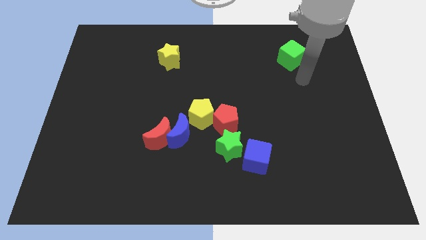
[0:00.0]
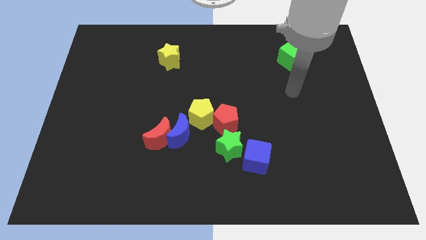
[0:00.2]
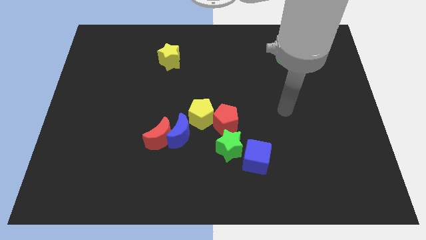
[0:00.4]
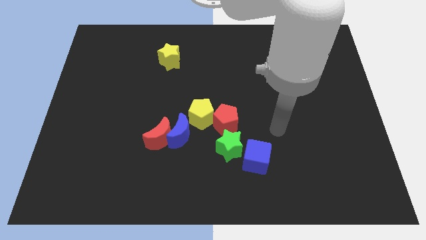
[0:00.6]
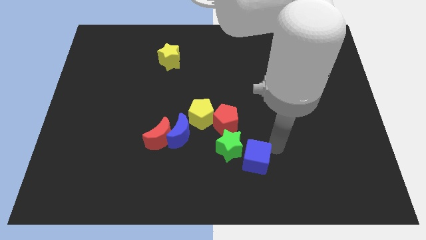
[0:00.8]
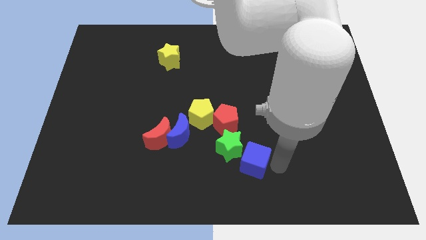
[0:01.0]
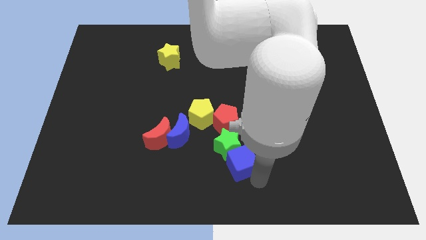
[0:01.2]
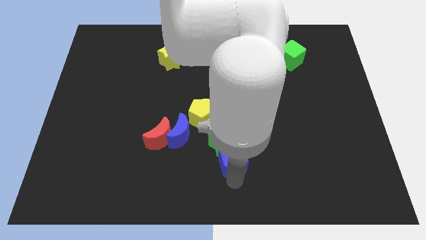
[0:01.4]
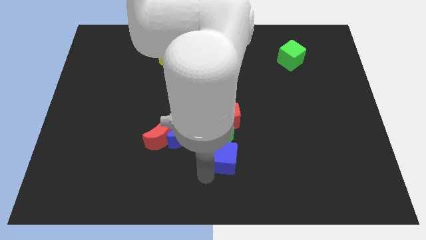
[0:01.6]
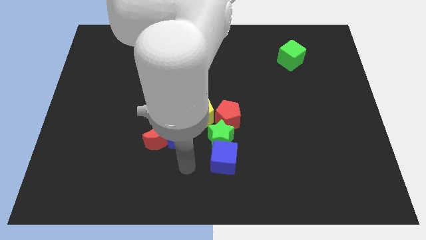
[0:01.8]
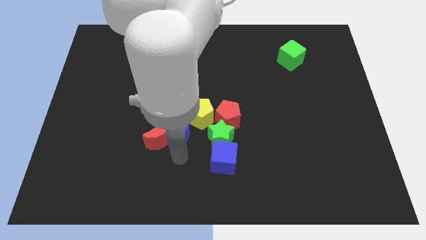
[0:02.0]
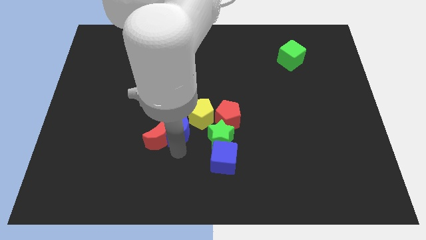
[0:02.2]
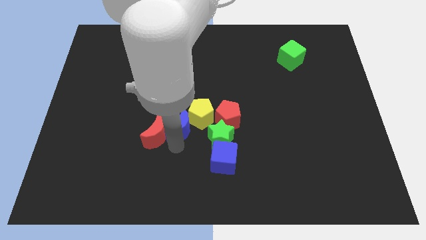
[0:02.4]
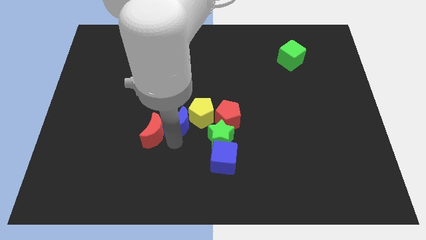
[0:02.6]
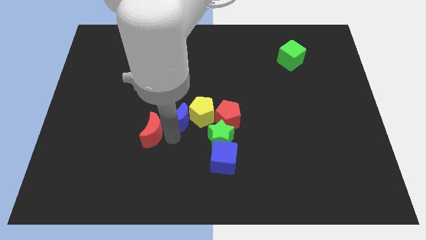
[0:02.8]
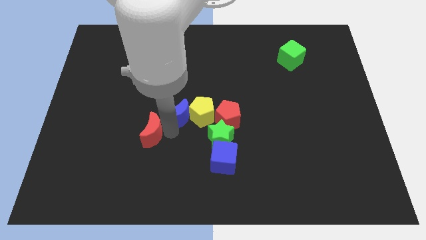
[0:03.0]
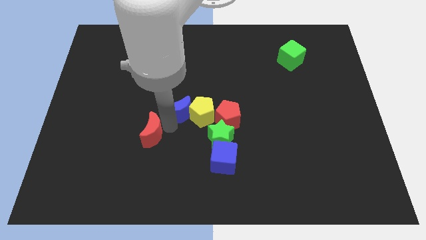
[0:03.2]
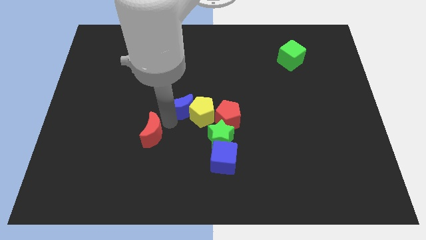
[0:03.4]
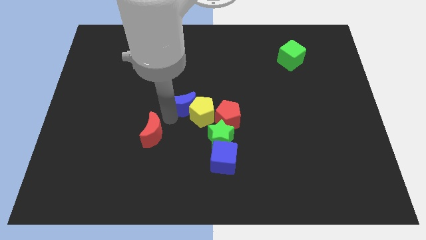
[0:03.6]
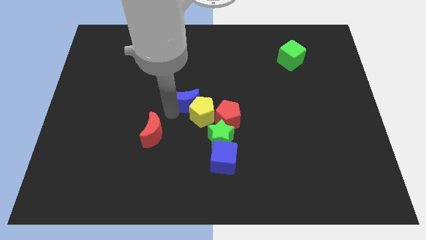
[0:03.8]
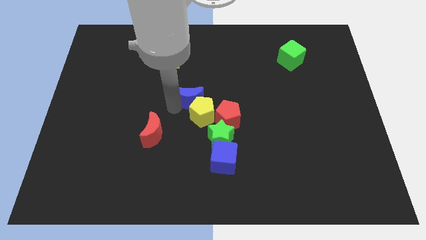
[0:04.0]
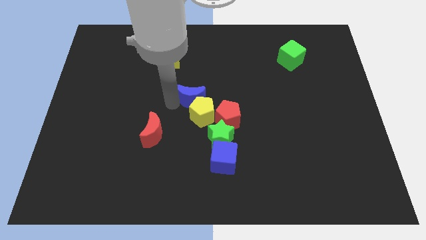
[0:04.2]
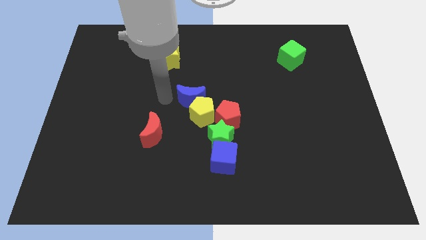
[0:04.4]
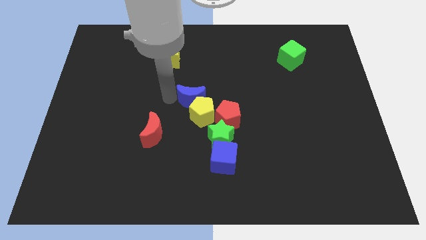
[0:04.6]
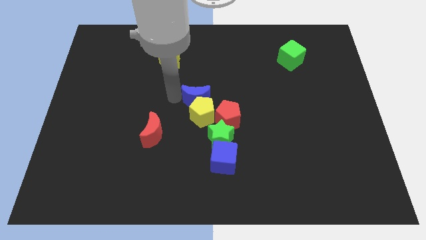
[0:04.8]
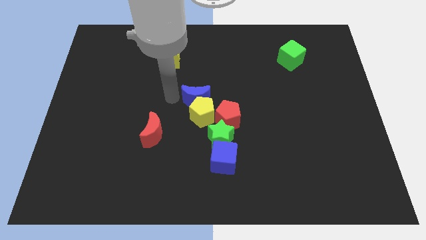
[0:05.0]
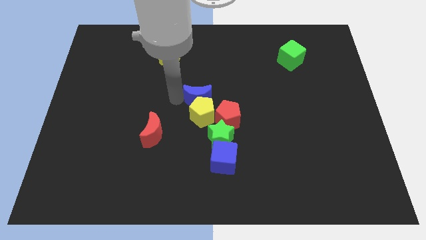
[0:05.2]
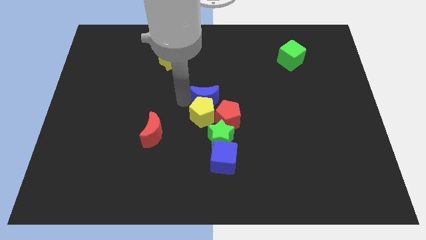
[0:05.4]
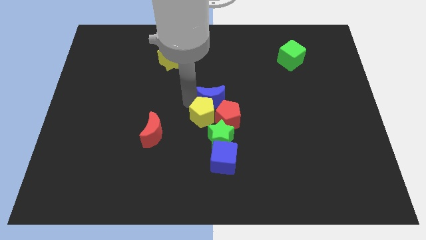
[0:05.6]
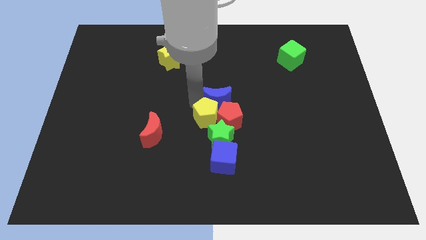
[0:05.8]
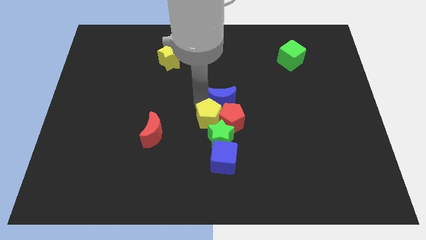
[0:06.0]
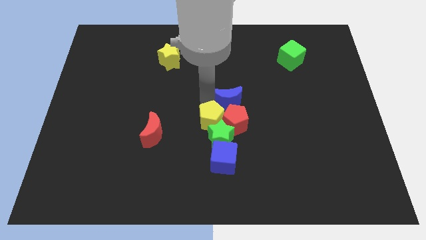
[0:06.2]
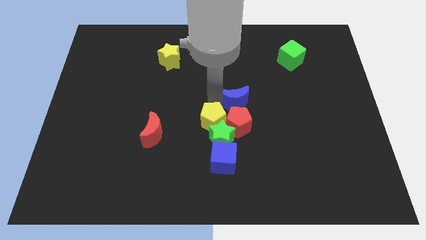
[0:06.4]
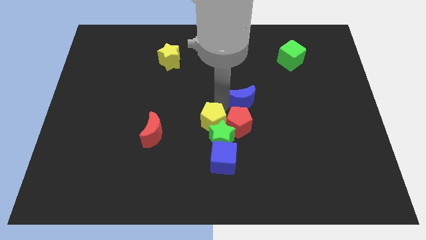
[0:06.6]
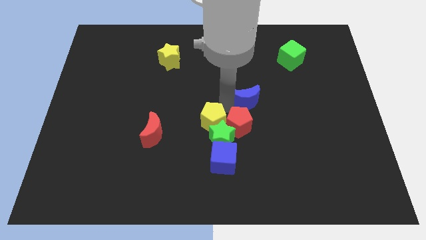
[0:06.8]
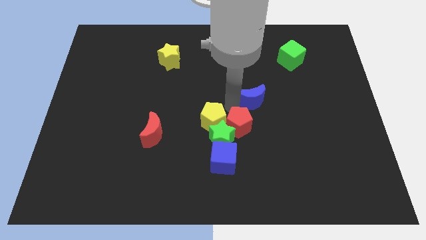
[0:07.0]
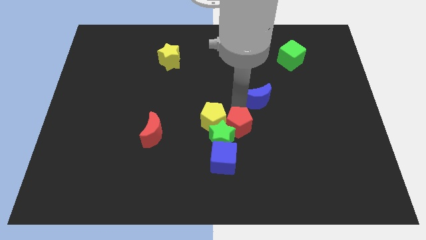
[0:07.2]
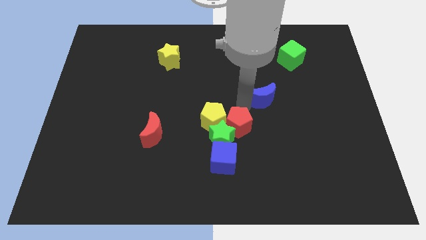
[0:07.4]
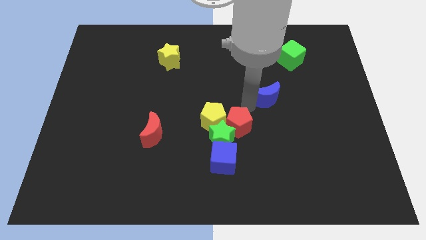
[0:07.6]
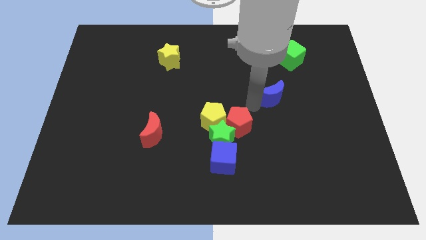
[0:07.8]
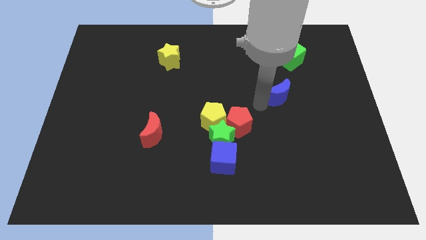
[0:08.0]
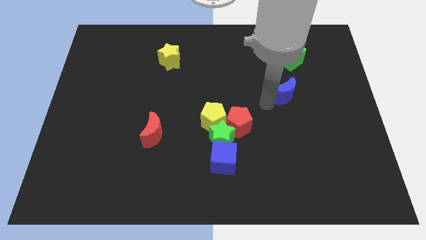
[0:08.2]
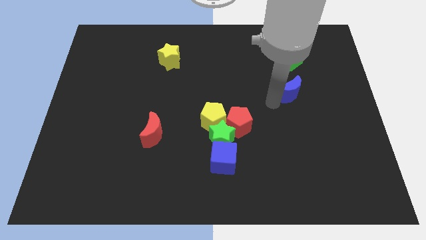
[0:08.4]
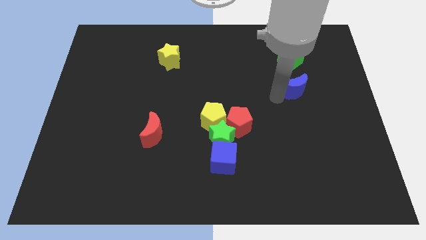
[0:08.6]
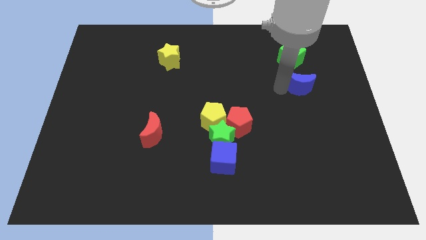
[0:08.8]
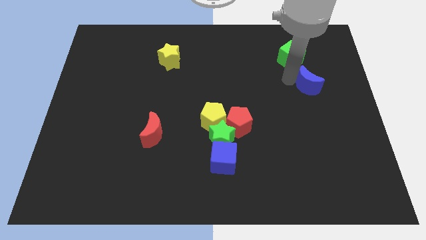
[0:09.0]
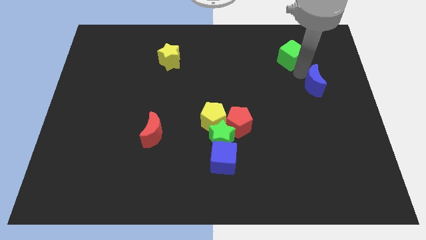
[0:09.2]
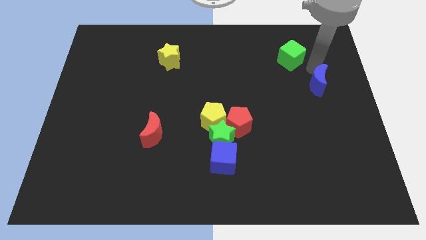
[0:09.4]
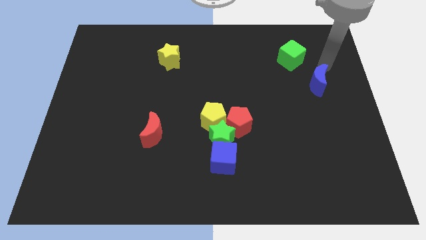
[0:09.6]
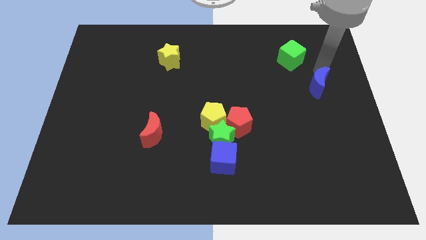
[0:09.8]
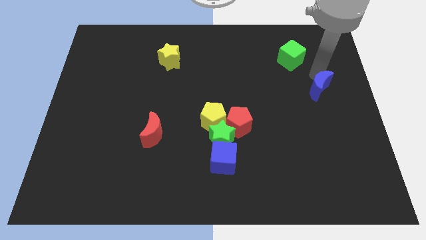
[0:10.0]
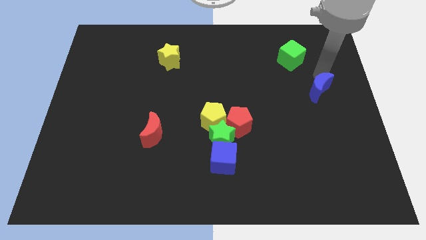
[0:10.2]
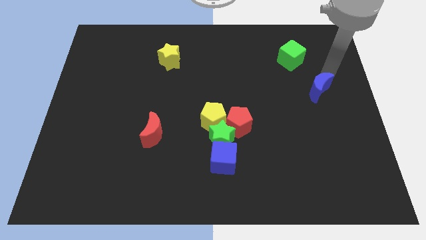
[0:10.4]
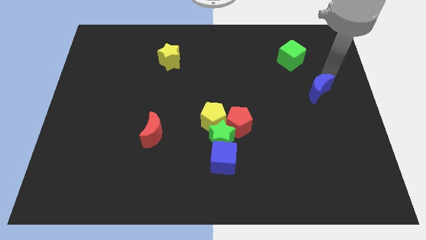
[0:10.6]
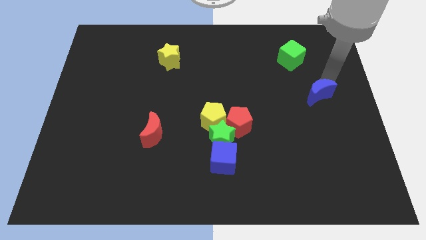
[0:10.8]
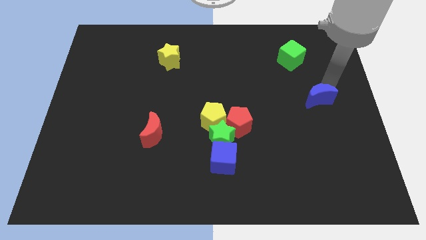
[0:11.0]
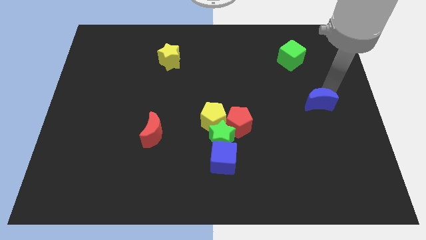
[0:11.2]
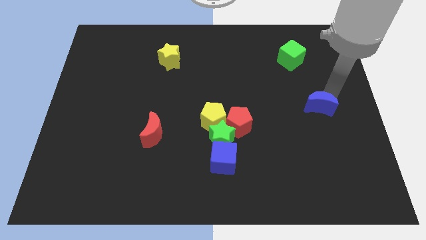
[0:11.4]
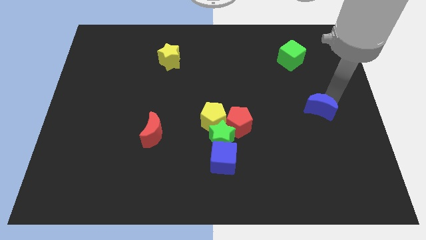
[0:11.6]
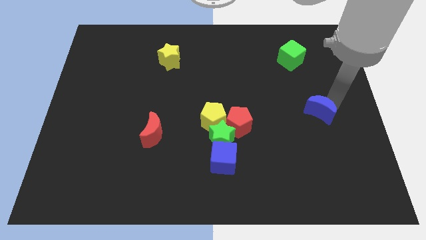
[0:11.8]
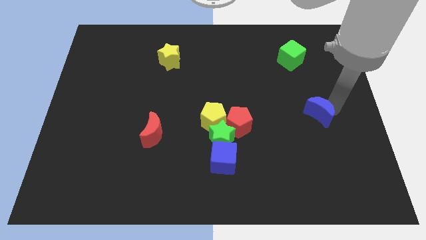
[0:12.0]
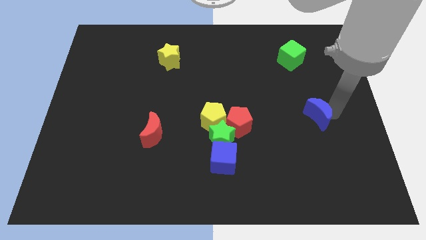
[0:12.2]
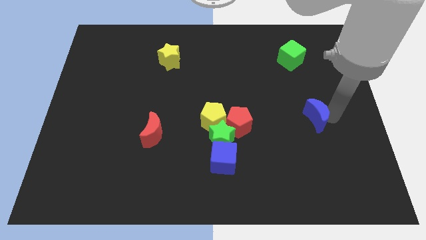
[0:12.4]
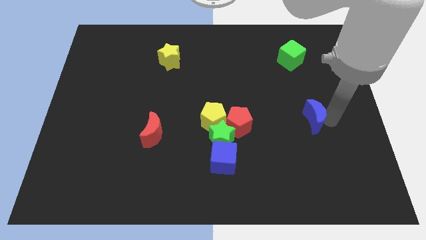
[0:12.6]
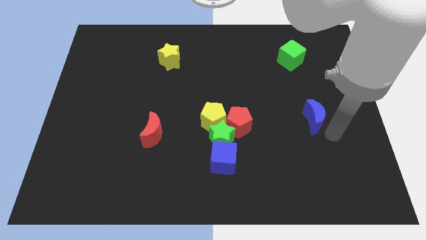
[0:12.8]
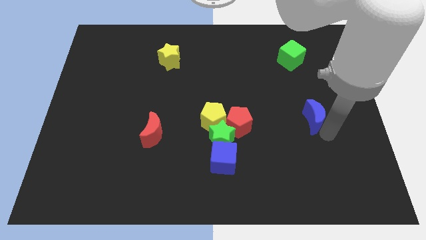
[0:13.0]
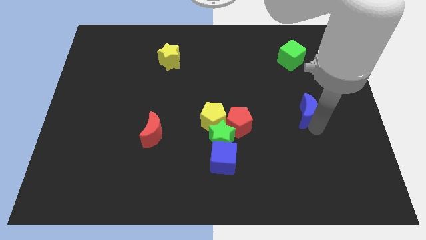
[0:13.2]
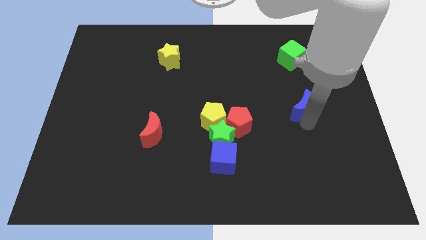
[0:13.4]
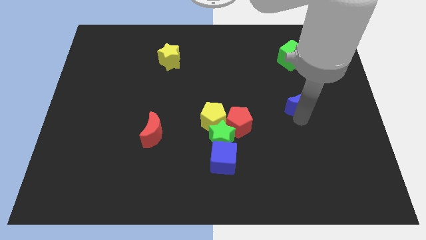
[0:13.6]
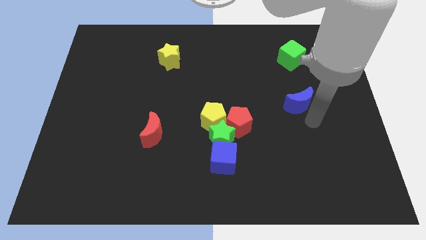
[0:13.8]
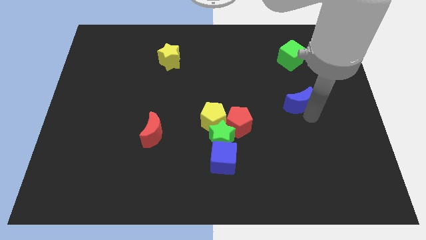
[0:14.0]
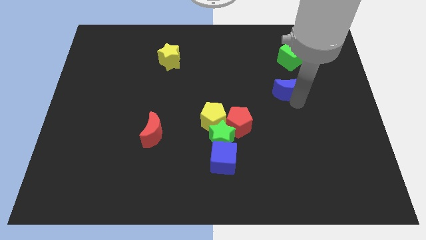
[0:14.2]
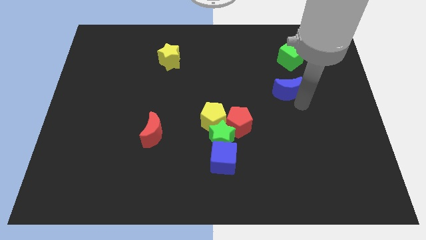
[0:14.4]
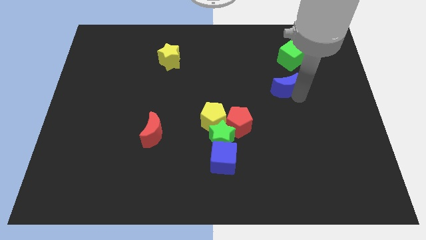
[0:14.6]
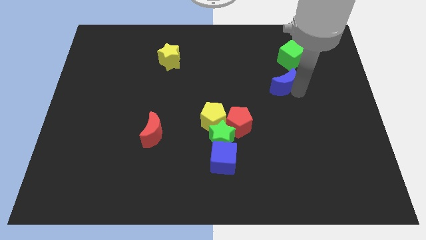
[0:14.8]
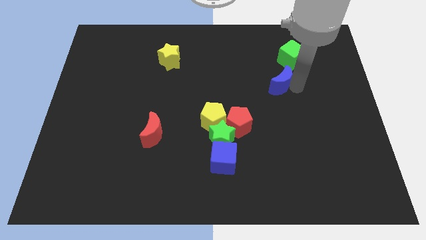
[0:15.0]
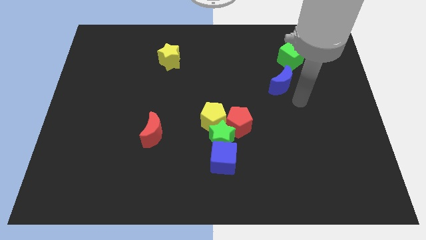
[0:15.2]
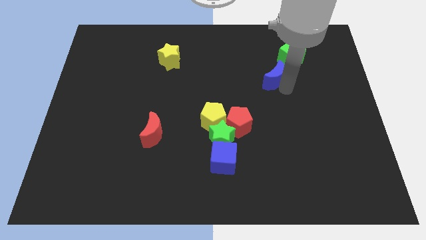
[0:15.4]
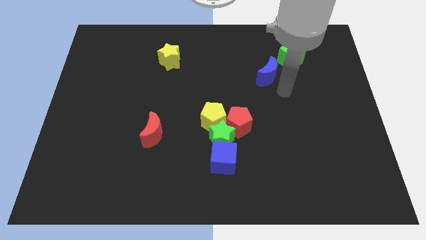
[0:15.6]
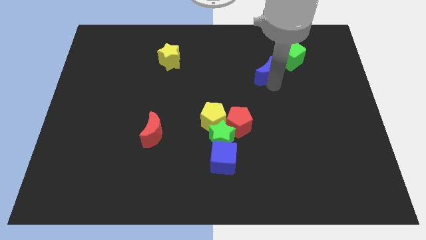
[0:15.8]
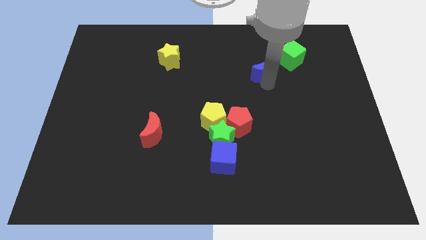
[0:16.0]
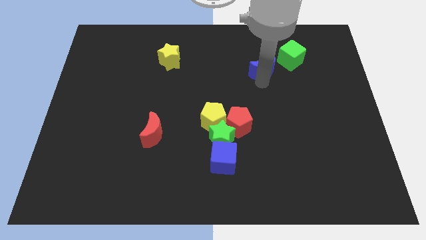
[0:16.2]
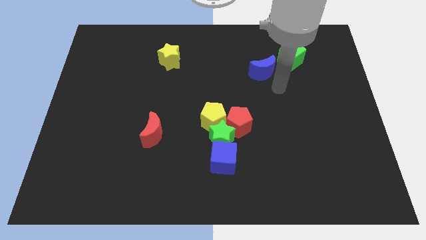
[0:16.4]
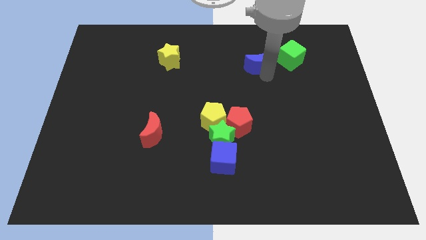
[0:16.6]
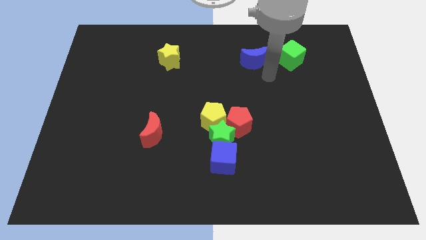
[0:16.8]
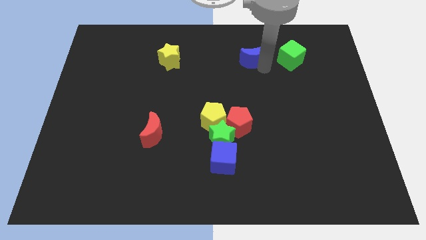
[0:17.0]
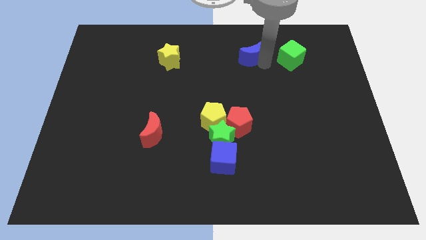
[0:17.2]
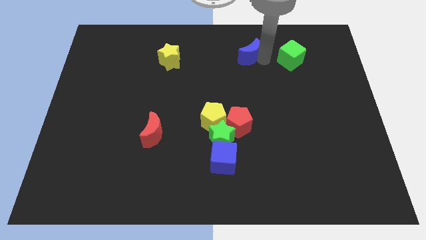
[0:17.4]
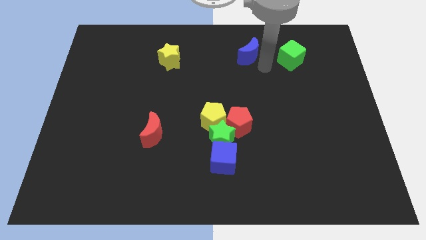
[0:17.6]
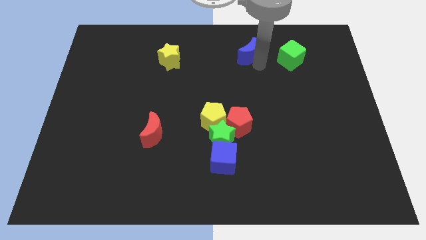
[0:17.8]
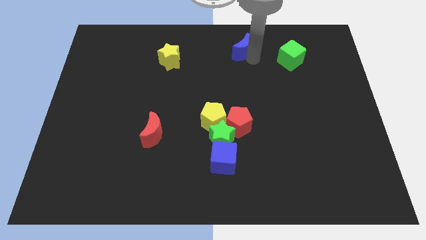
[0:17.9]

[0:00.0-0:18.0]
slide the blue moon to the towards your base
